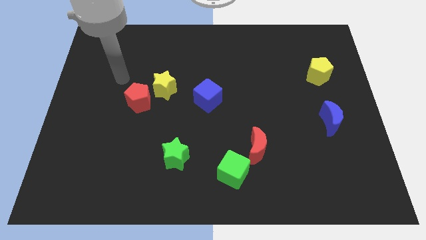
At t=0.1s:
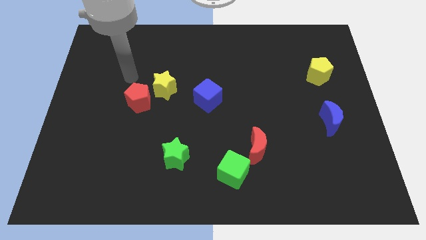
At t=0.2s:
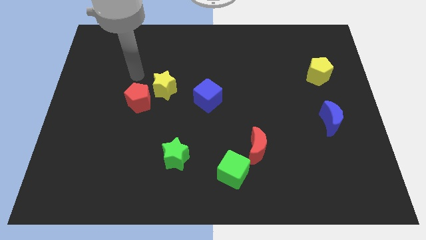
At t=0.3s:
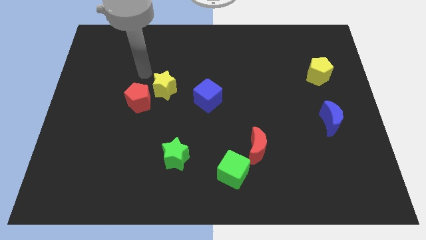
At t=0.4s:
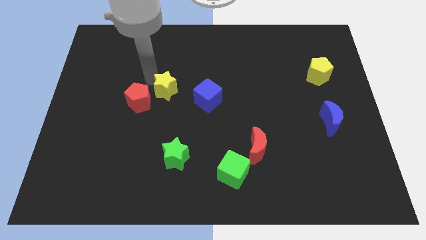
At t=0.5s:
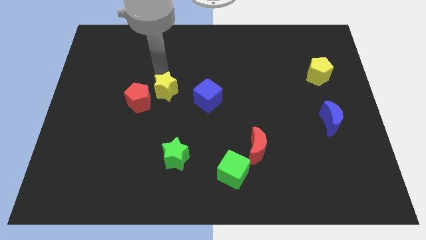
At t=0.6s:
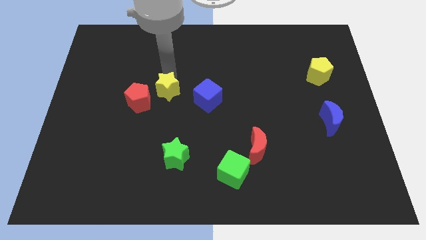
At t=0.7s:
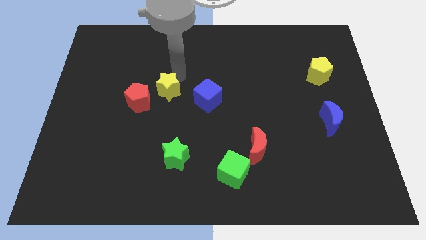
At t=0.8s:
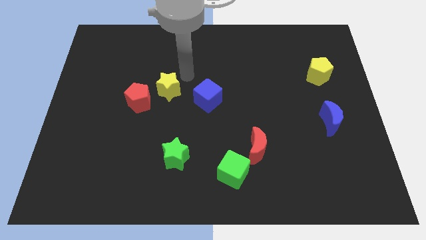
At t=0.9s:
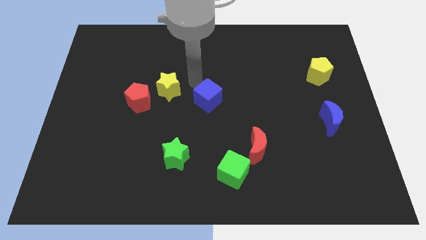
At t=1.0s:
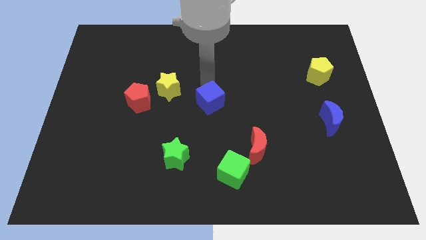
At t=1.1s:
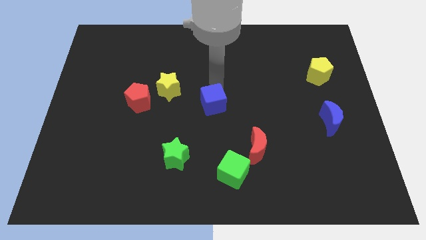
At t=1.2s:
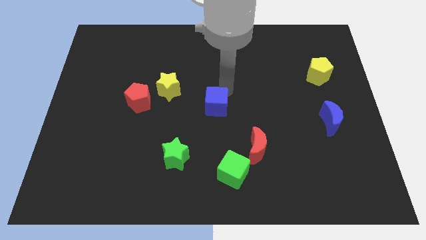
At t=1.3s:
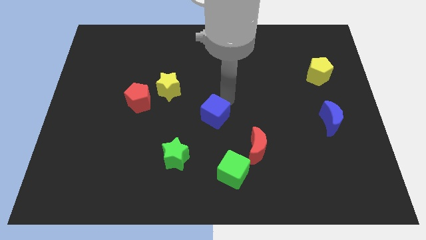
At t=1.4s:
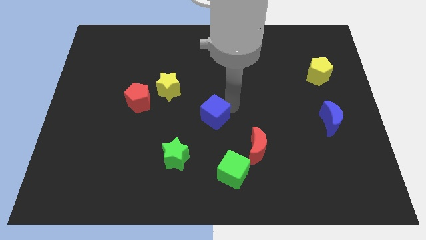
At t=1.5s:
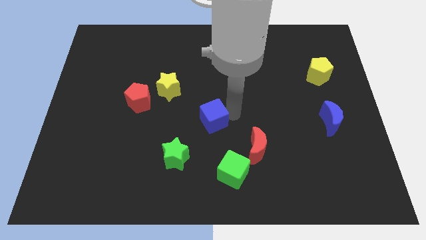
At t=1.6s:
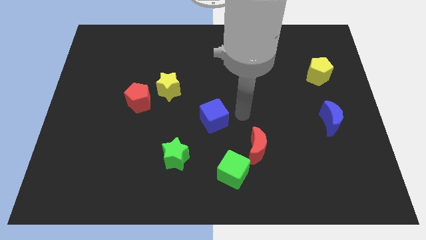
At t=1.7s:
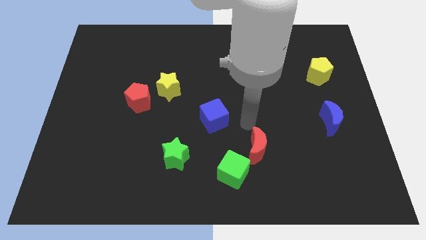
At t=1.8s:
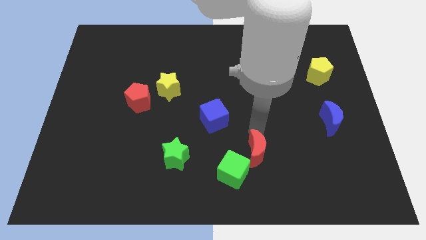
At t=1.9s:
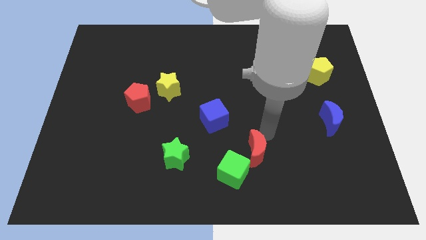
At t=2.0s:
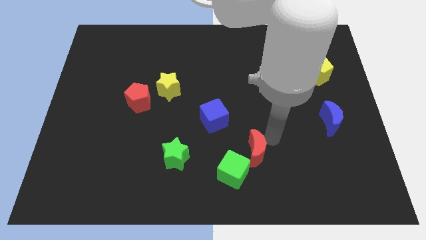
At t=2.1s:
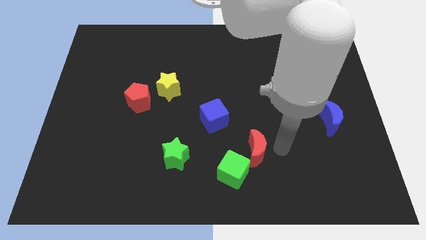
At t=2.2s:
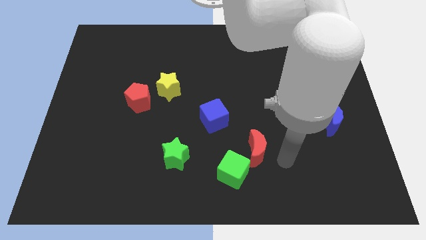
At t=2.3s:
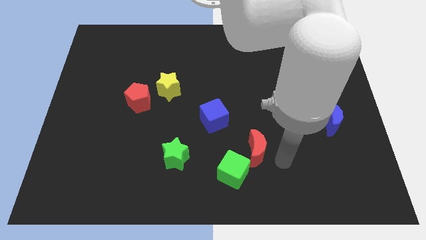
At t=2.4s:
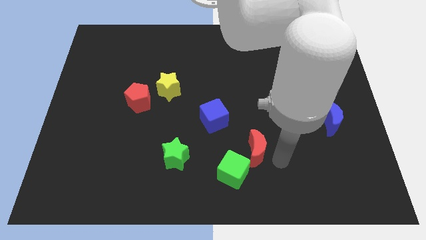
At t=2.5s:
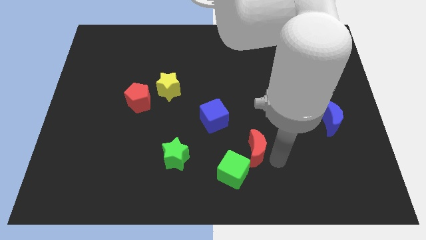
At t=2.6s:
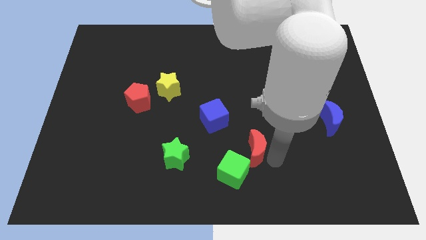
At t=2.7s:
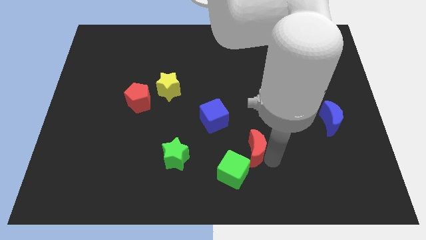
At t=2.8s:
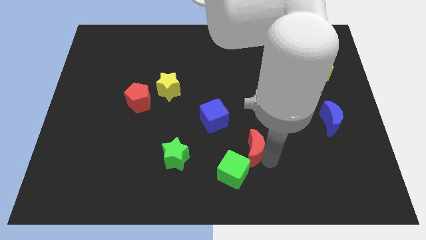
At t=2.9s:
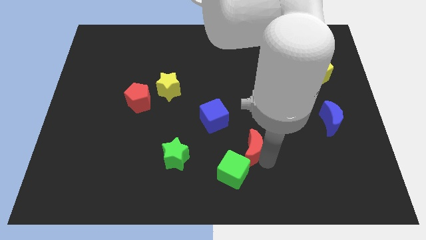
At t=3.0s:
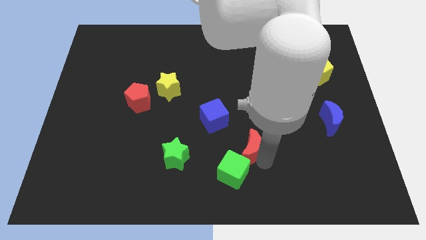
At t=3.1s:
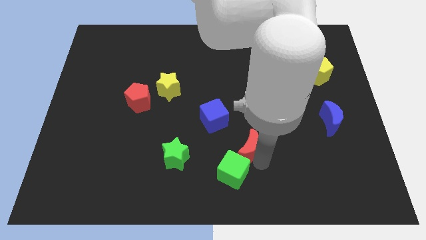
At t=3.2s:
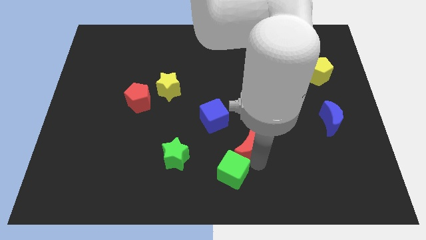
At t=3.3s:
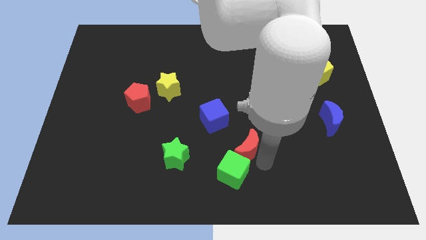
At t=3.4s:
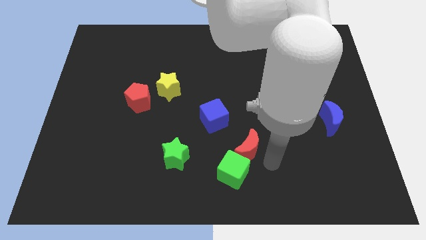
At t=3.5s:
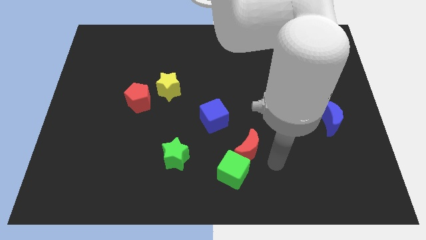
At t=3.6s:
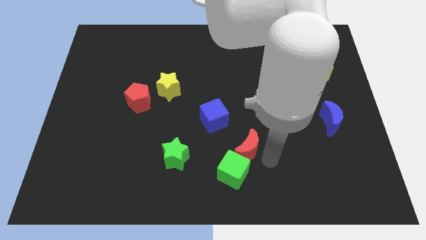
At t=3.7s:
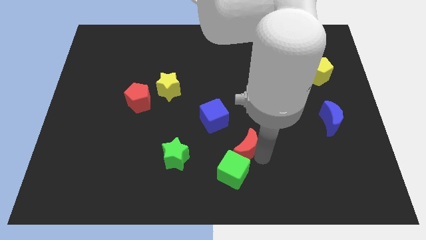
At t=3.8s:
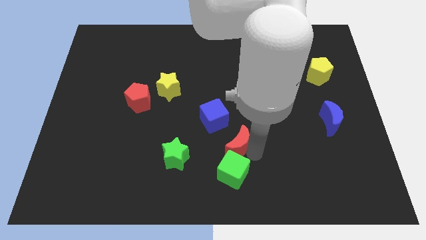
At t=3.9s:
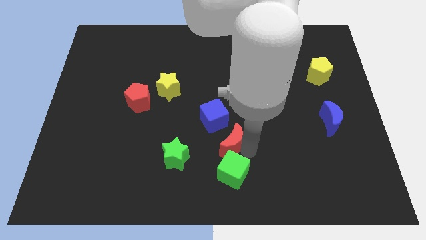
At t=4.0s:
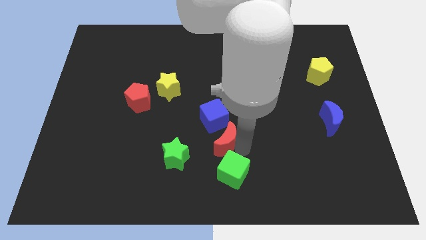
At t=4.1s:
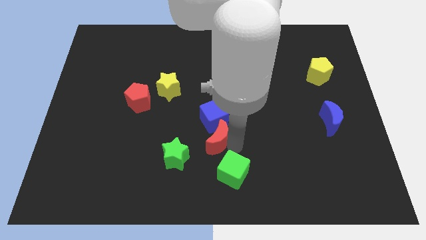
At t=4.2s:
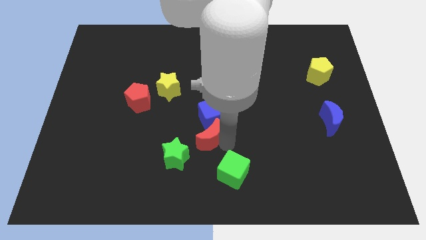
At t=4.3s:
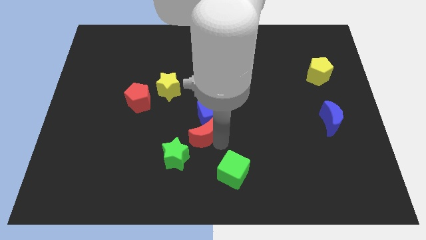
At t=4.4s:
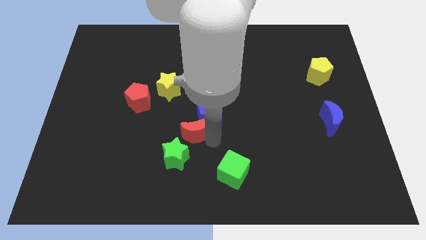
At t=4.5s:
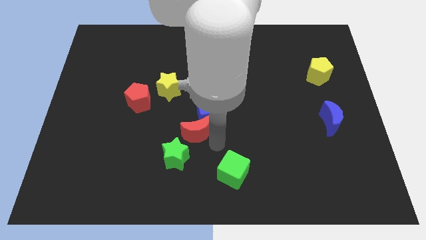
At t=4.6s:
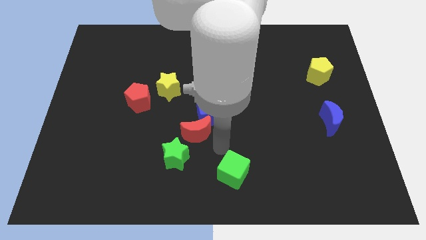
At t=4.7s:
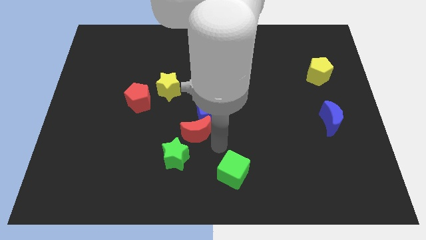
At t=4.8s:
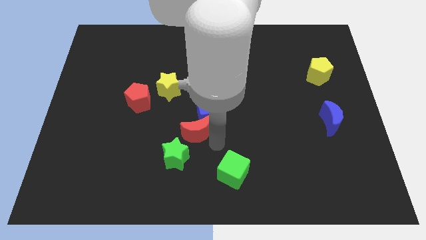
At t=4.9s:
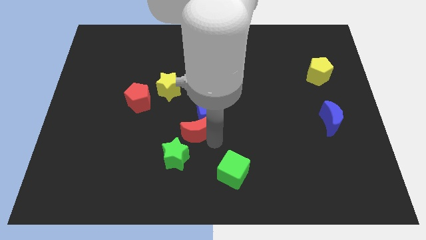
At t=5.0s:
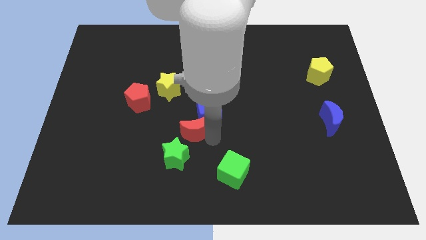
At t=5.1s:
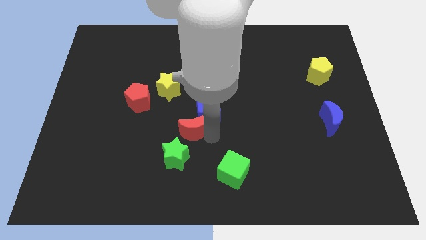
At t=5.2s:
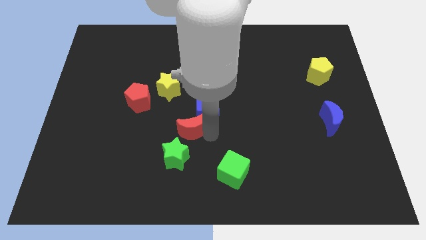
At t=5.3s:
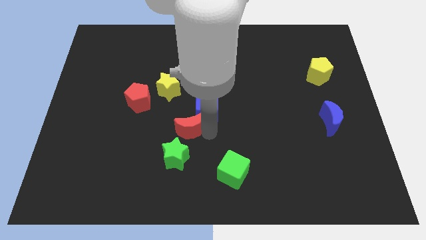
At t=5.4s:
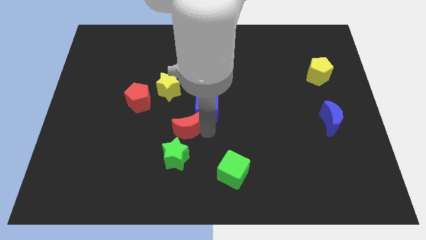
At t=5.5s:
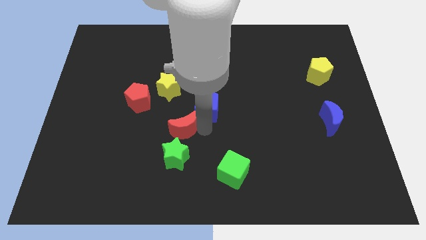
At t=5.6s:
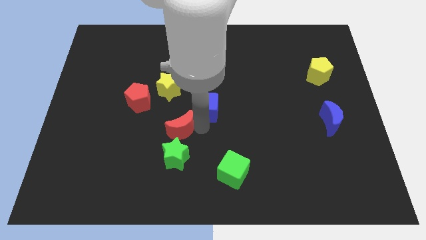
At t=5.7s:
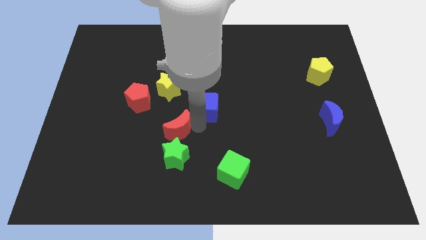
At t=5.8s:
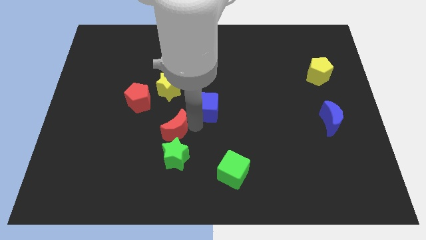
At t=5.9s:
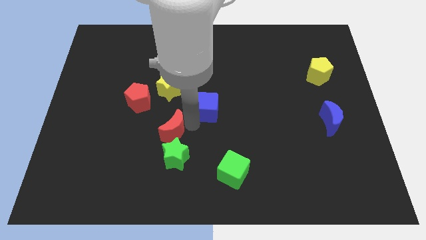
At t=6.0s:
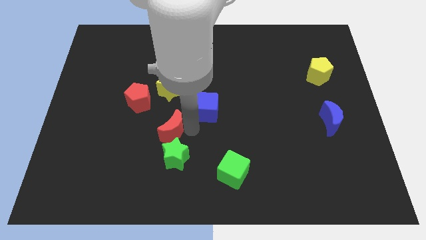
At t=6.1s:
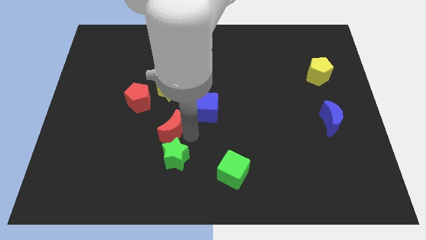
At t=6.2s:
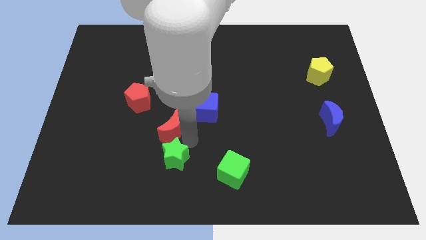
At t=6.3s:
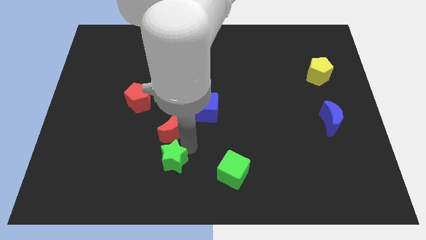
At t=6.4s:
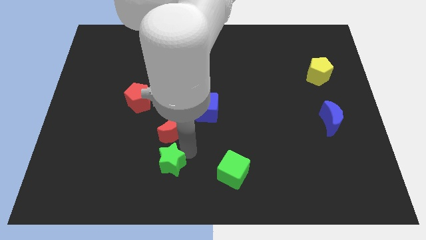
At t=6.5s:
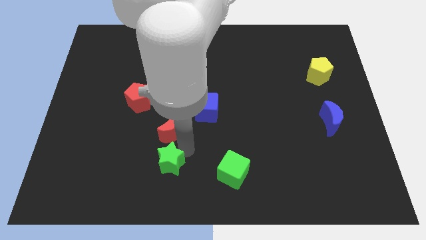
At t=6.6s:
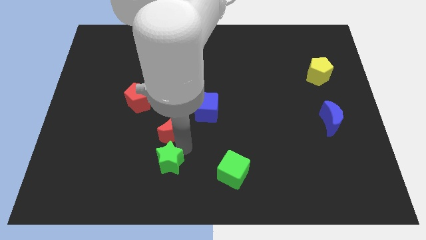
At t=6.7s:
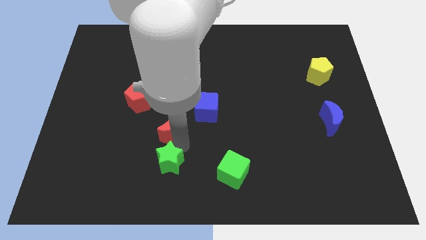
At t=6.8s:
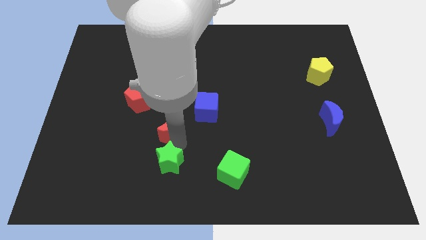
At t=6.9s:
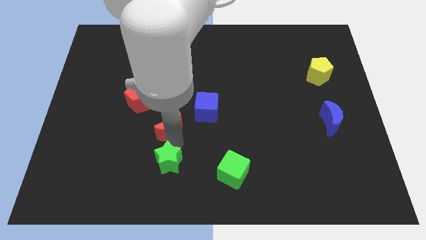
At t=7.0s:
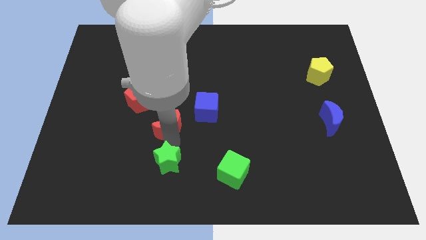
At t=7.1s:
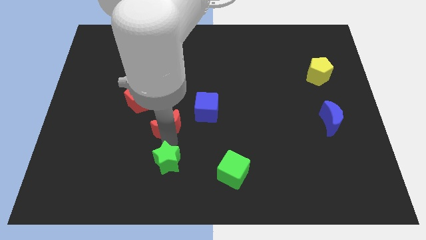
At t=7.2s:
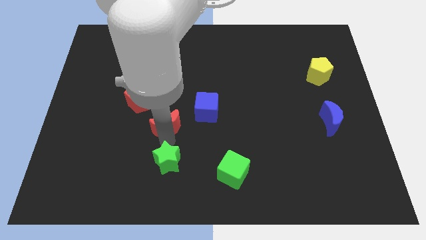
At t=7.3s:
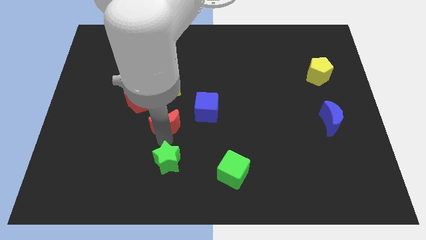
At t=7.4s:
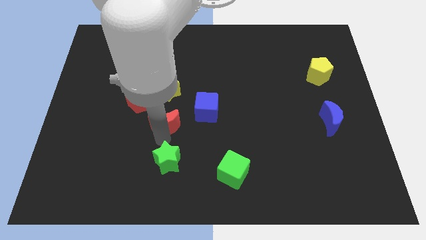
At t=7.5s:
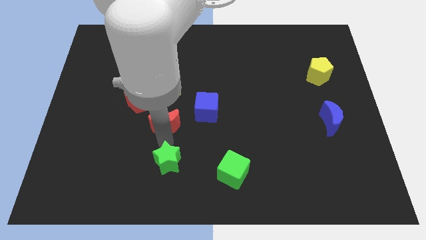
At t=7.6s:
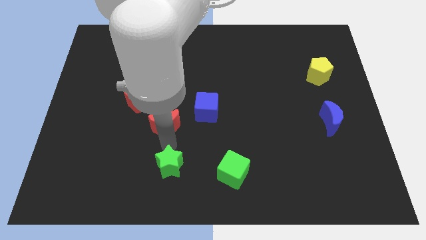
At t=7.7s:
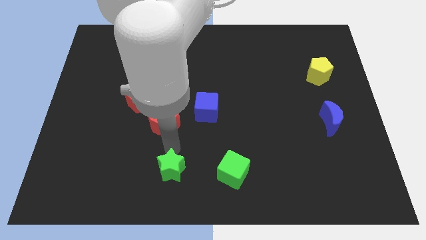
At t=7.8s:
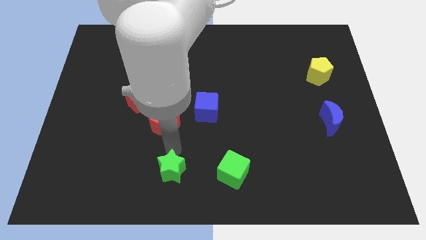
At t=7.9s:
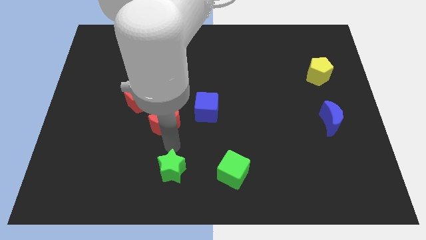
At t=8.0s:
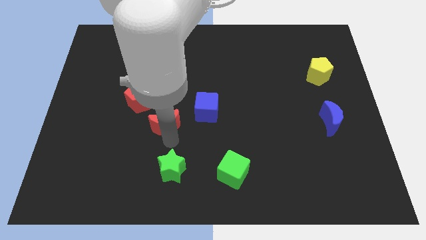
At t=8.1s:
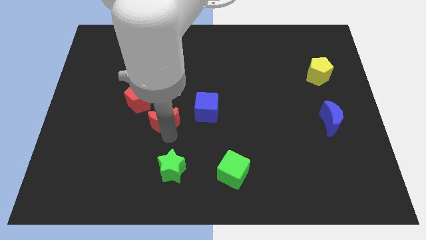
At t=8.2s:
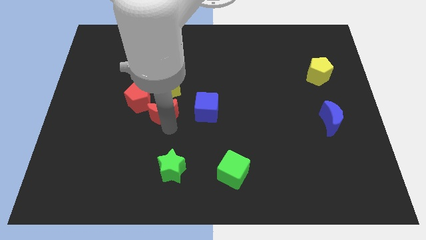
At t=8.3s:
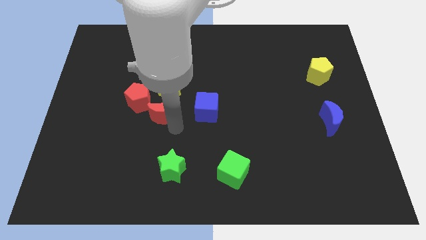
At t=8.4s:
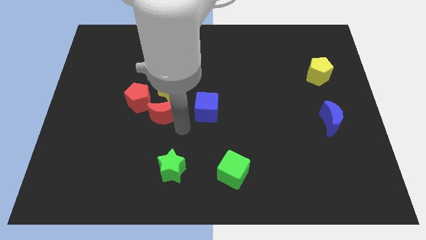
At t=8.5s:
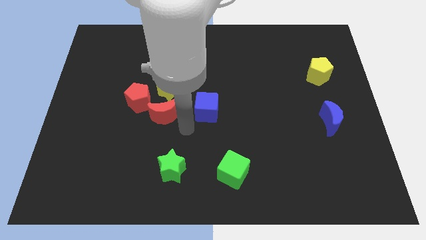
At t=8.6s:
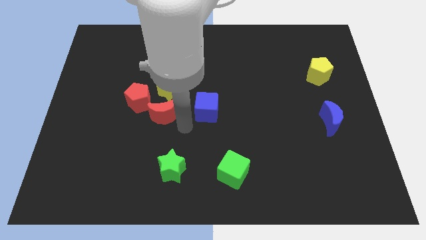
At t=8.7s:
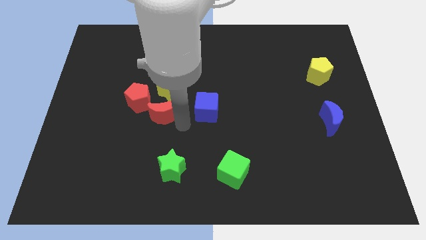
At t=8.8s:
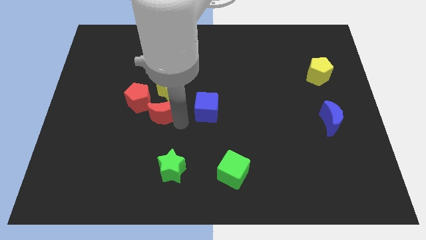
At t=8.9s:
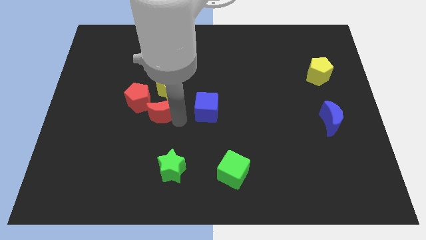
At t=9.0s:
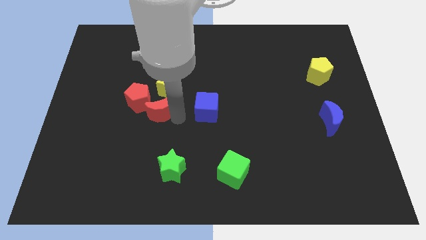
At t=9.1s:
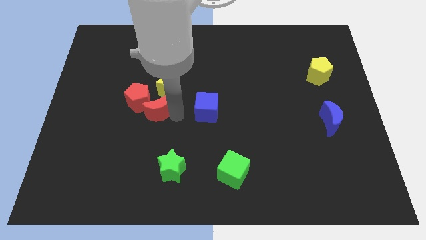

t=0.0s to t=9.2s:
push the red moon towards the red pentagon
